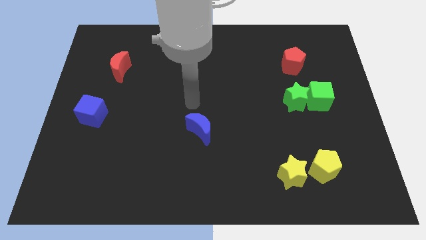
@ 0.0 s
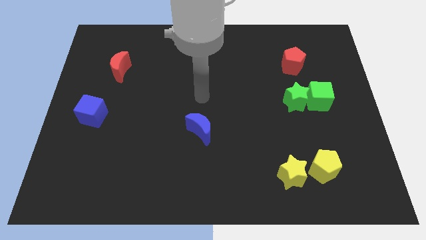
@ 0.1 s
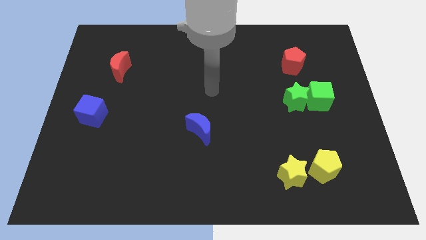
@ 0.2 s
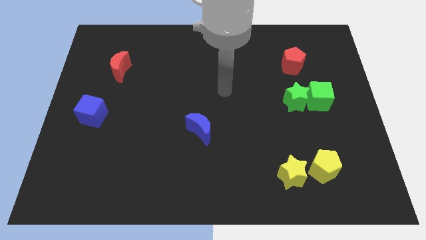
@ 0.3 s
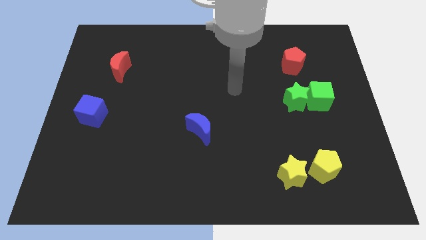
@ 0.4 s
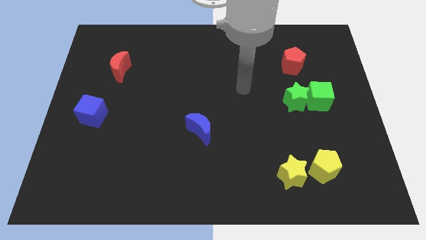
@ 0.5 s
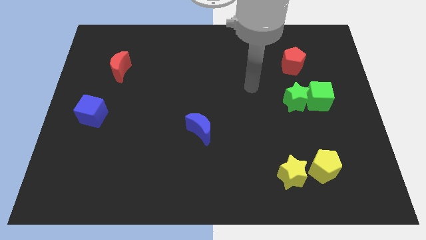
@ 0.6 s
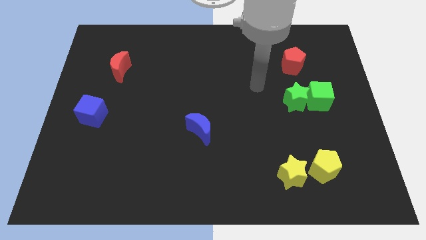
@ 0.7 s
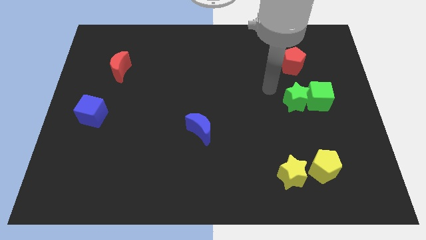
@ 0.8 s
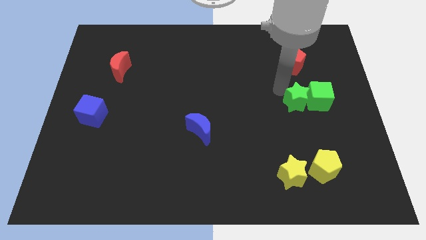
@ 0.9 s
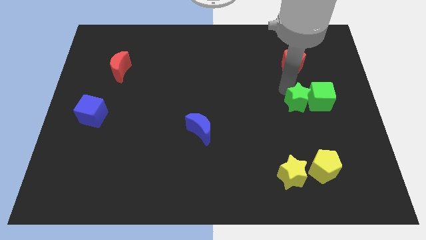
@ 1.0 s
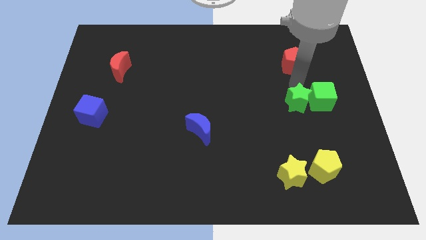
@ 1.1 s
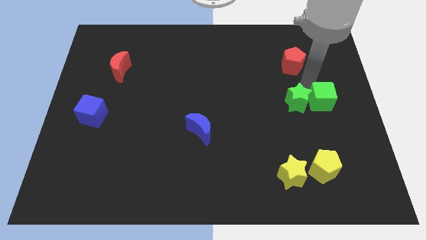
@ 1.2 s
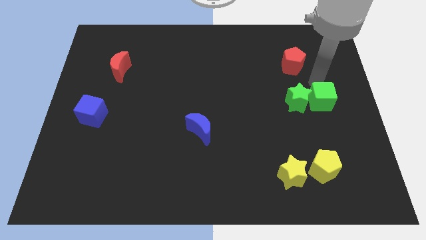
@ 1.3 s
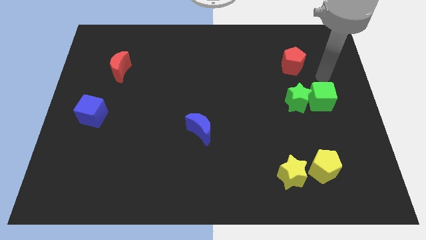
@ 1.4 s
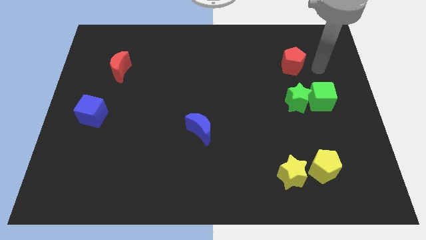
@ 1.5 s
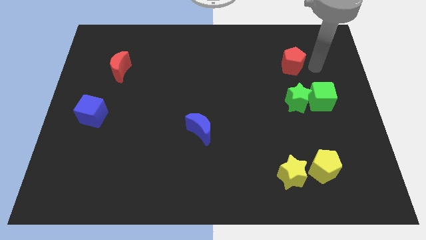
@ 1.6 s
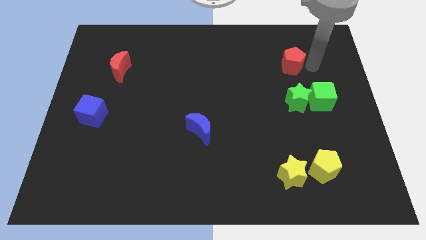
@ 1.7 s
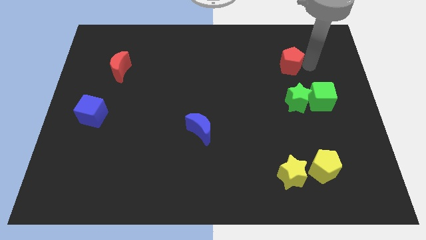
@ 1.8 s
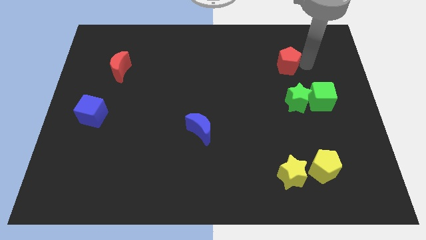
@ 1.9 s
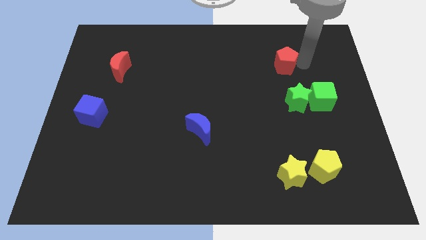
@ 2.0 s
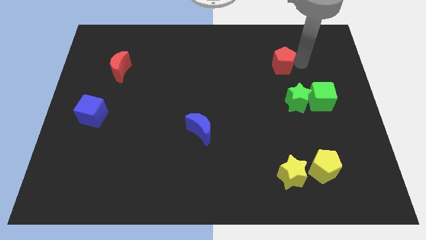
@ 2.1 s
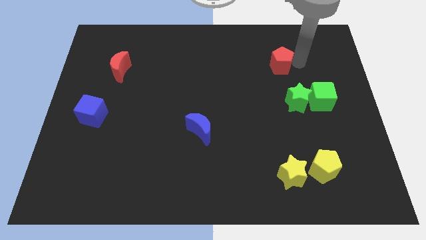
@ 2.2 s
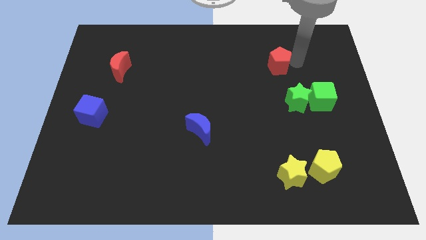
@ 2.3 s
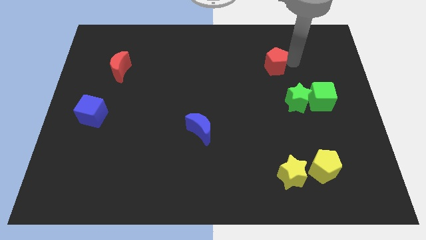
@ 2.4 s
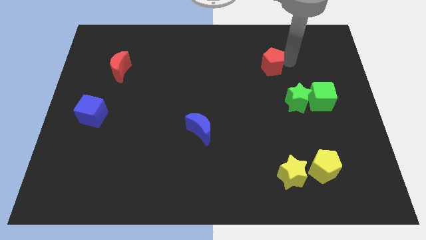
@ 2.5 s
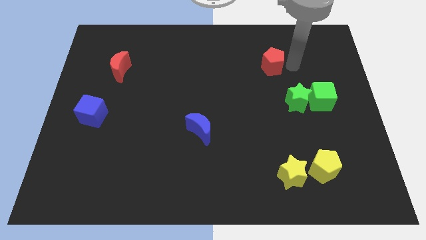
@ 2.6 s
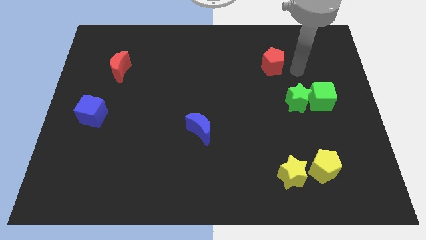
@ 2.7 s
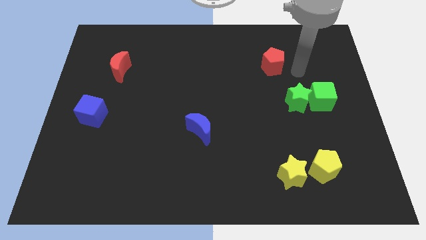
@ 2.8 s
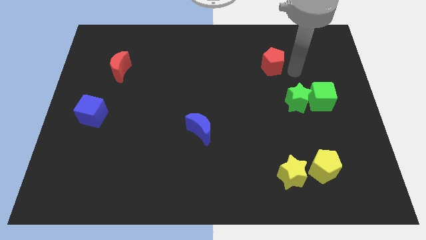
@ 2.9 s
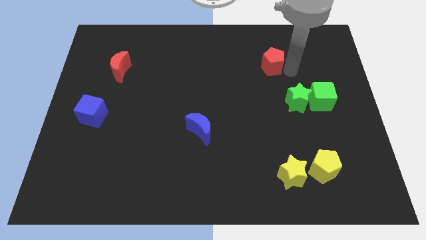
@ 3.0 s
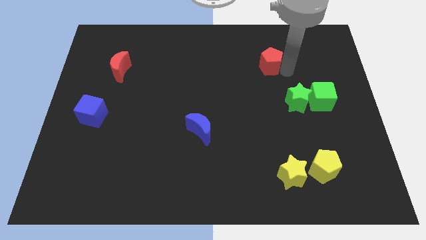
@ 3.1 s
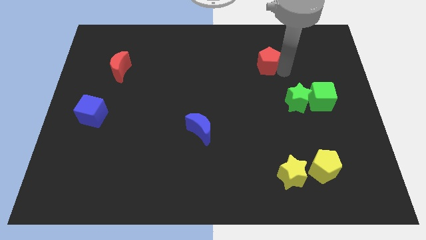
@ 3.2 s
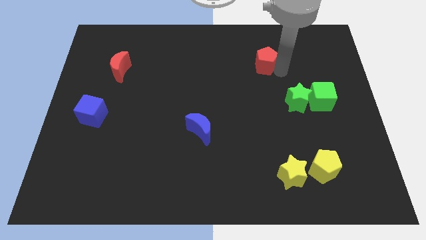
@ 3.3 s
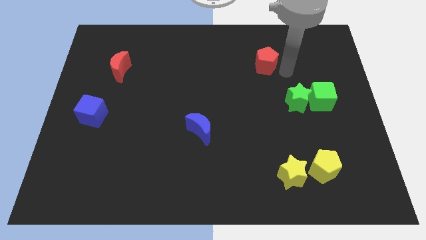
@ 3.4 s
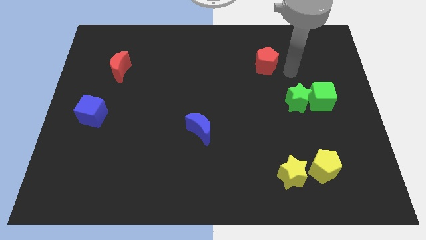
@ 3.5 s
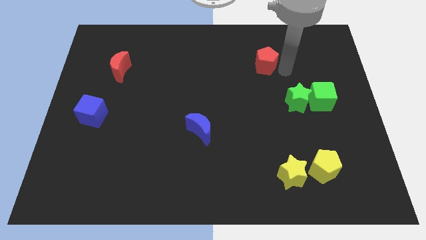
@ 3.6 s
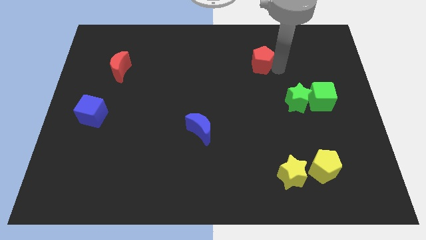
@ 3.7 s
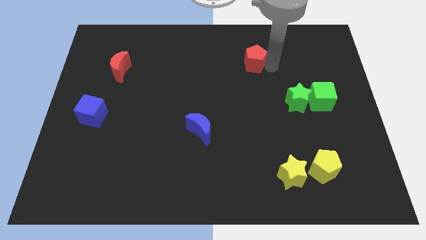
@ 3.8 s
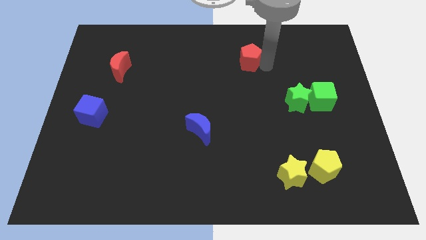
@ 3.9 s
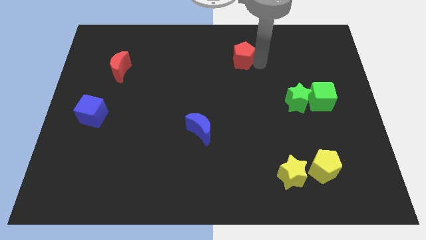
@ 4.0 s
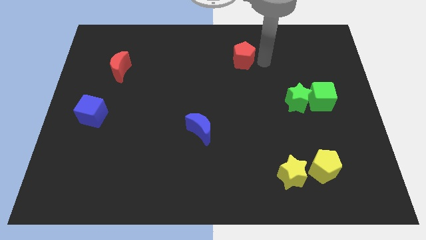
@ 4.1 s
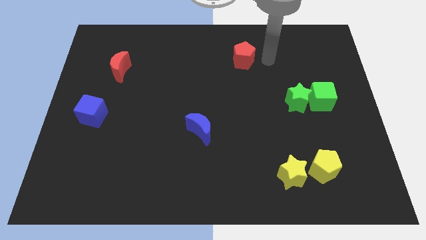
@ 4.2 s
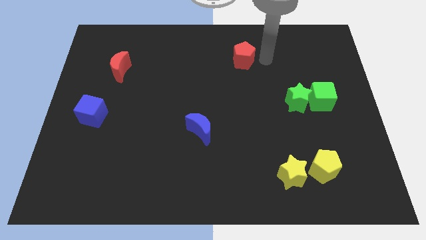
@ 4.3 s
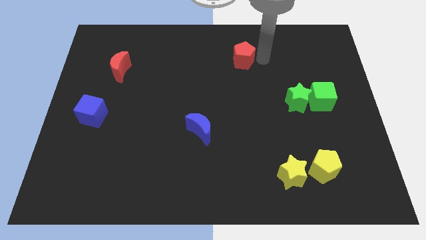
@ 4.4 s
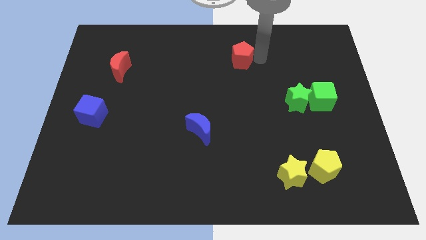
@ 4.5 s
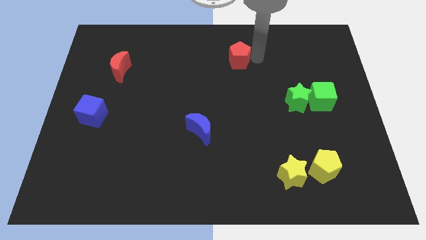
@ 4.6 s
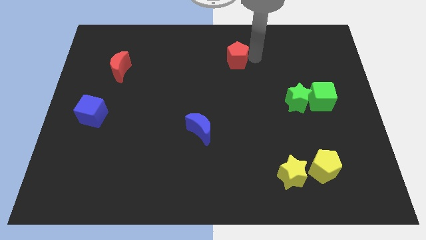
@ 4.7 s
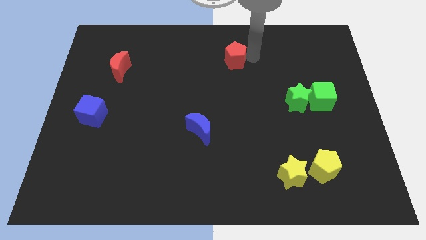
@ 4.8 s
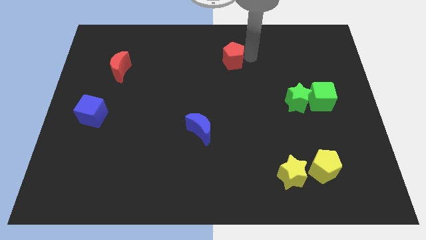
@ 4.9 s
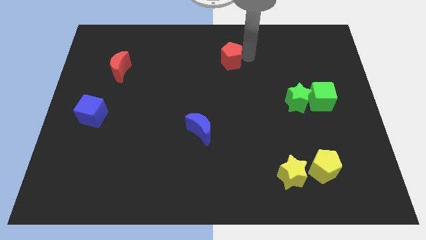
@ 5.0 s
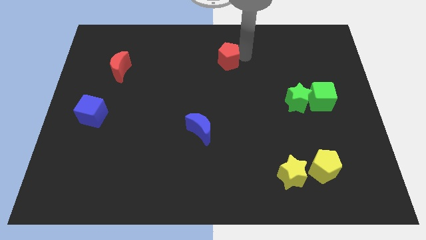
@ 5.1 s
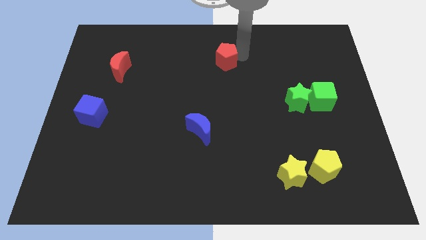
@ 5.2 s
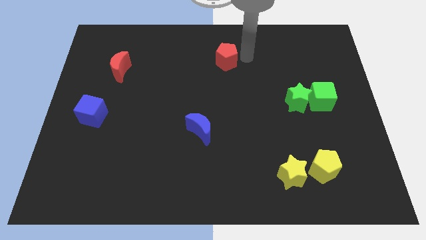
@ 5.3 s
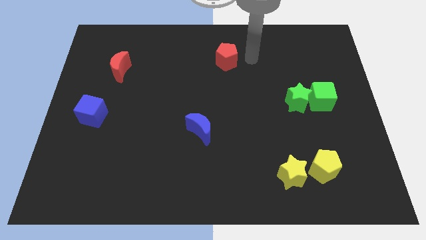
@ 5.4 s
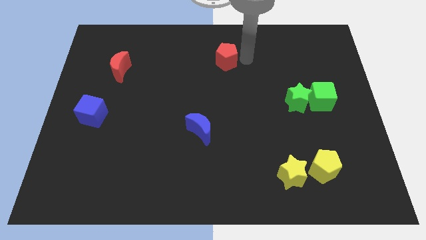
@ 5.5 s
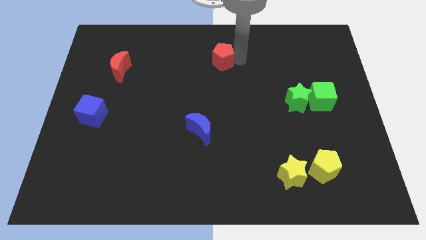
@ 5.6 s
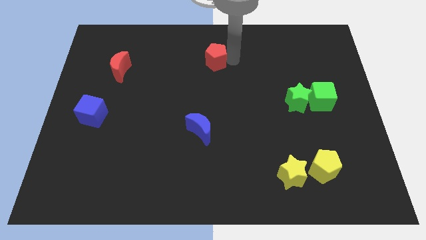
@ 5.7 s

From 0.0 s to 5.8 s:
slide the red pentagon to the left

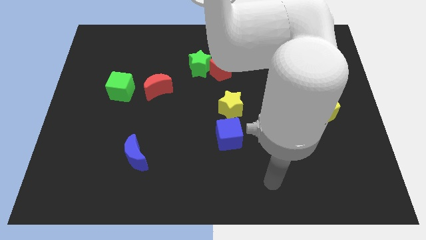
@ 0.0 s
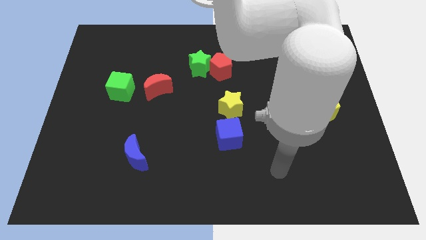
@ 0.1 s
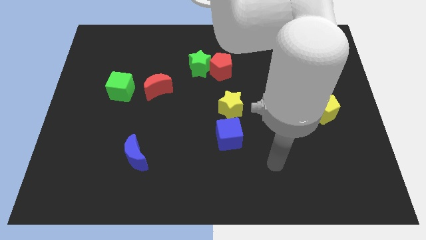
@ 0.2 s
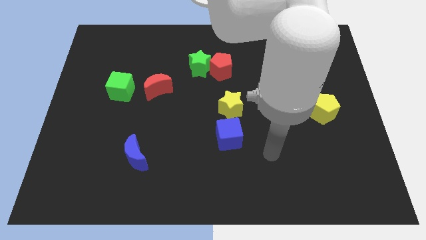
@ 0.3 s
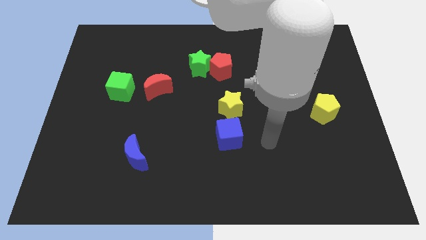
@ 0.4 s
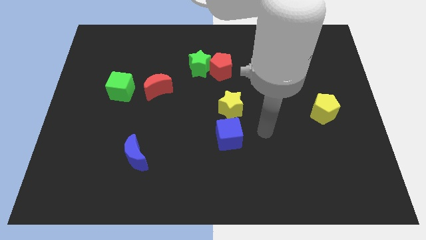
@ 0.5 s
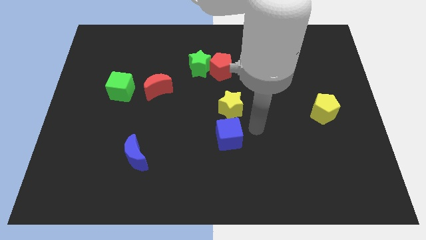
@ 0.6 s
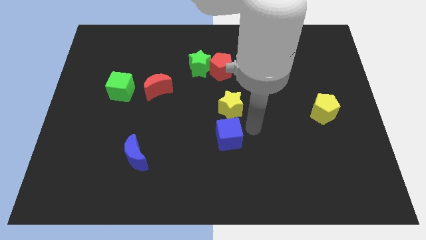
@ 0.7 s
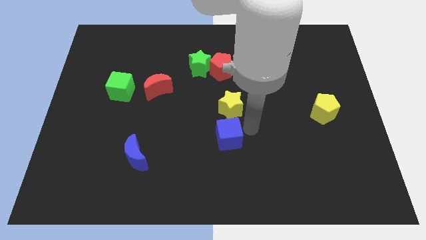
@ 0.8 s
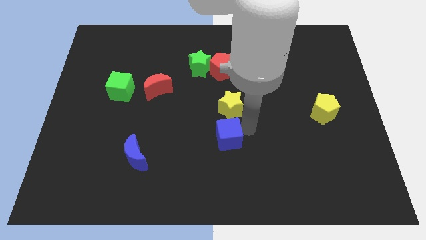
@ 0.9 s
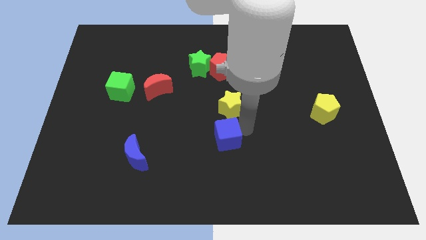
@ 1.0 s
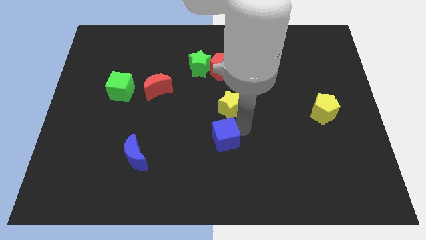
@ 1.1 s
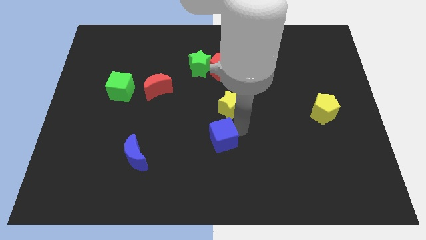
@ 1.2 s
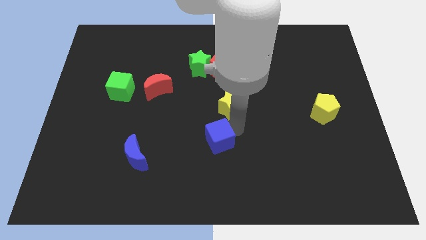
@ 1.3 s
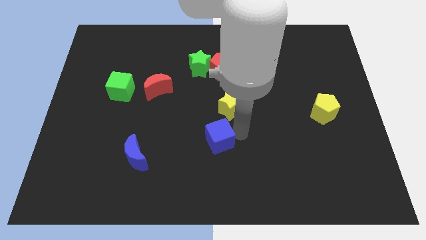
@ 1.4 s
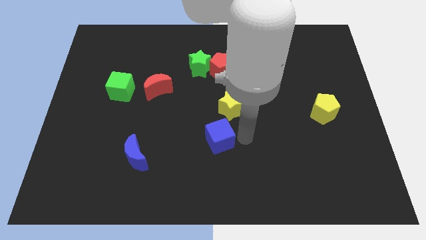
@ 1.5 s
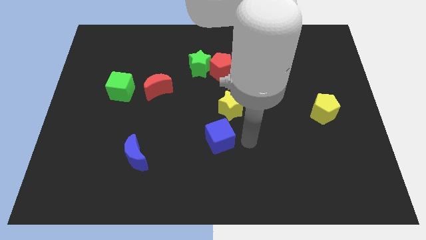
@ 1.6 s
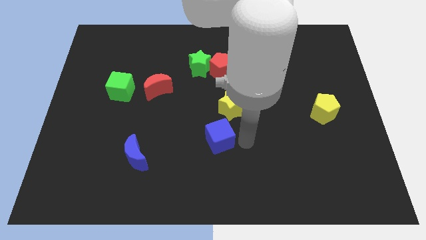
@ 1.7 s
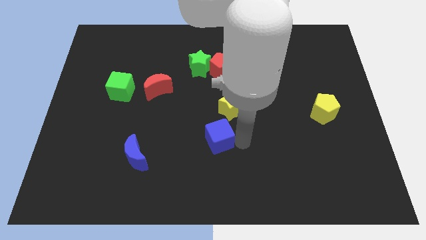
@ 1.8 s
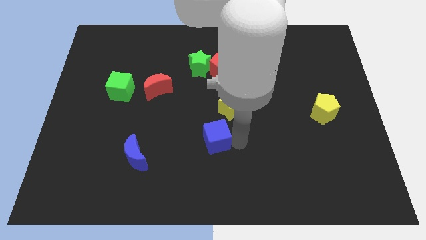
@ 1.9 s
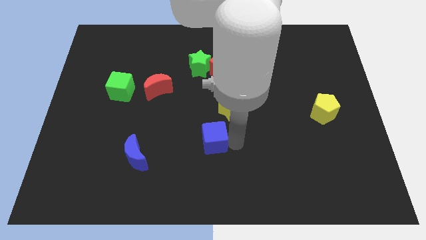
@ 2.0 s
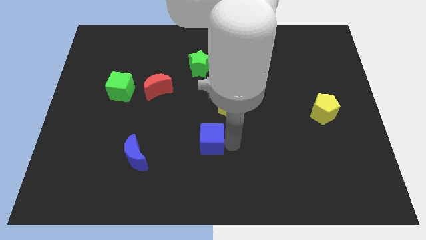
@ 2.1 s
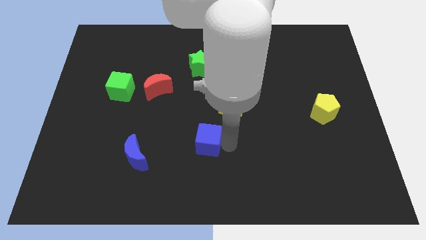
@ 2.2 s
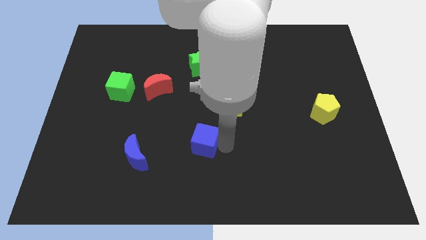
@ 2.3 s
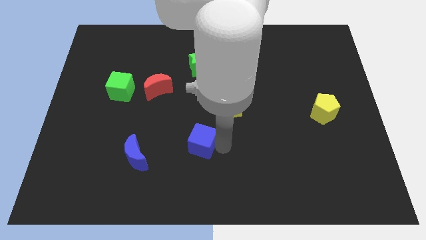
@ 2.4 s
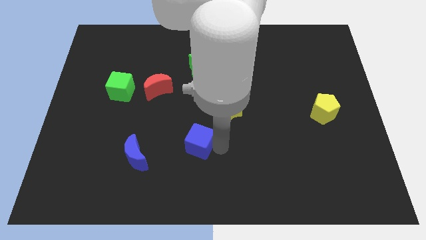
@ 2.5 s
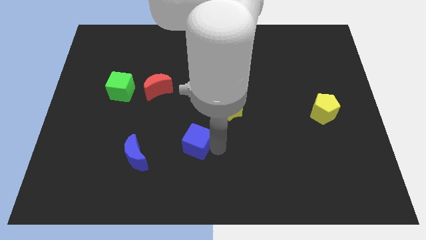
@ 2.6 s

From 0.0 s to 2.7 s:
slide the blue cube left a little
